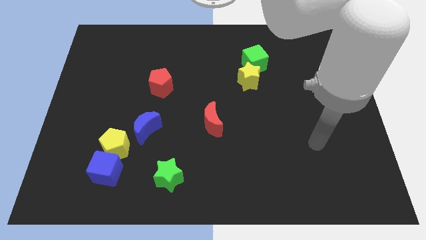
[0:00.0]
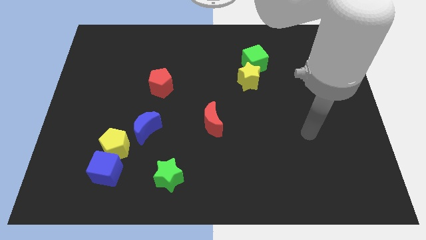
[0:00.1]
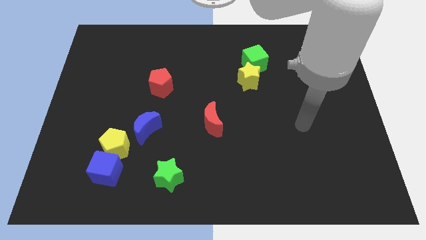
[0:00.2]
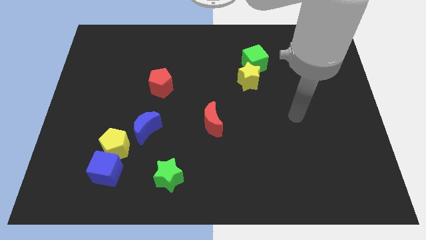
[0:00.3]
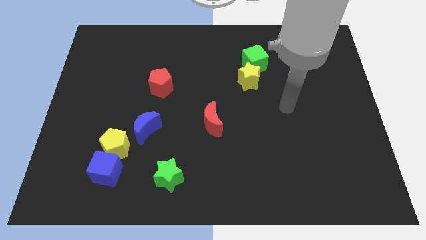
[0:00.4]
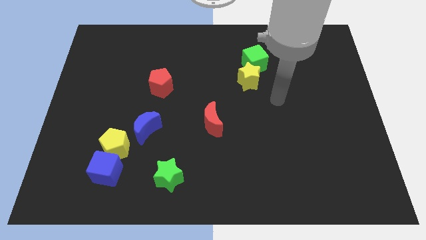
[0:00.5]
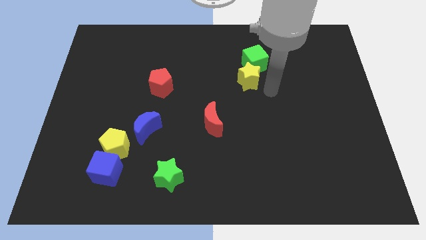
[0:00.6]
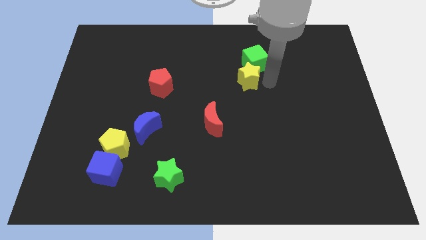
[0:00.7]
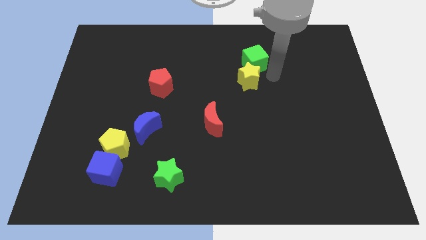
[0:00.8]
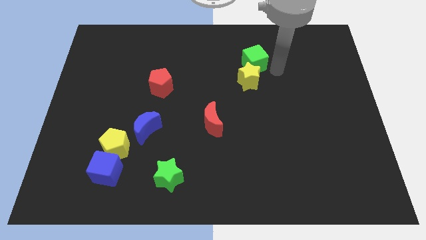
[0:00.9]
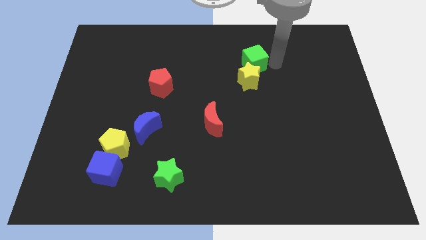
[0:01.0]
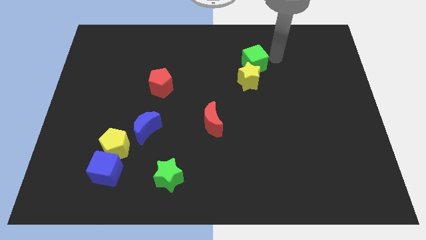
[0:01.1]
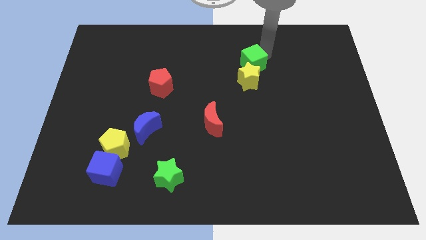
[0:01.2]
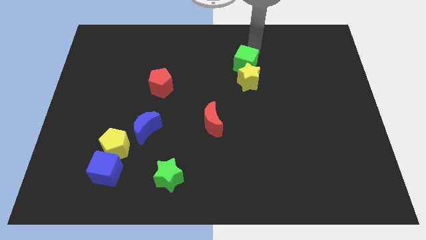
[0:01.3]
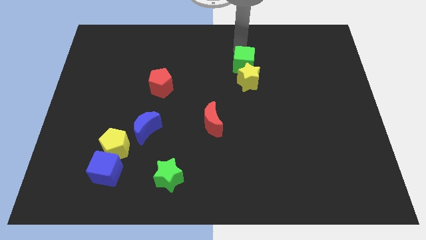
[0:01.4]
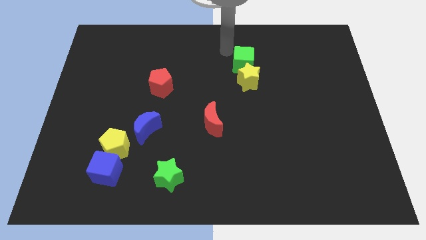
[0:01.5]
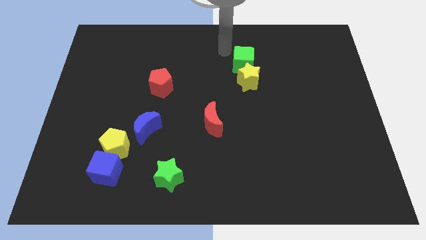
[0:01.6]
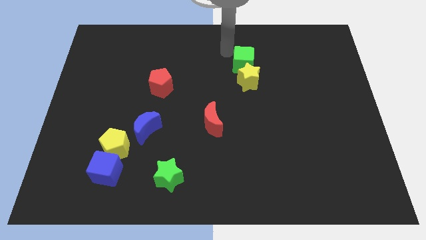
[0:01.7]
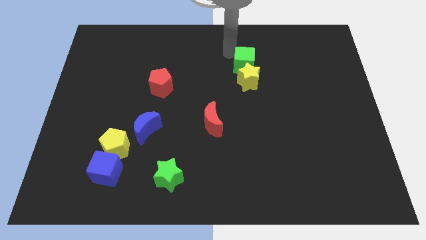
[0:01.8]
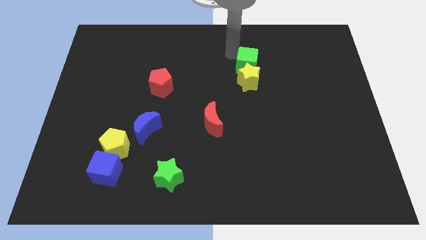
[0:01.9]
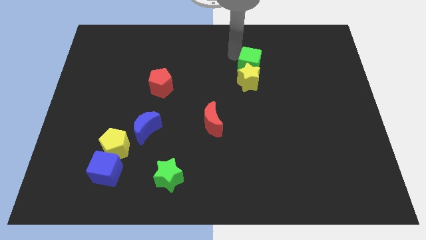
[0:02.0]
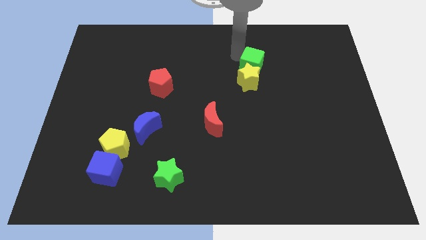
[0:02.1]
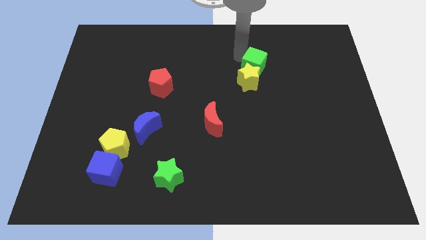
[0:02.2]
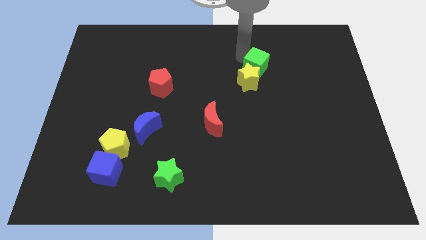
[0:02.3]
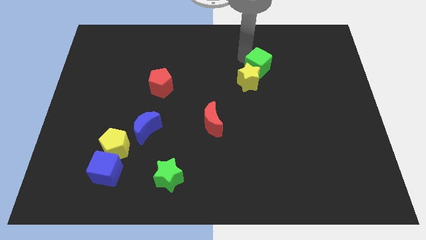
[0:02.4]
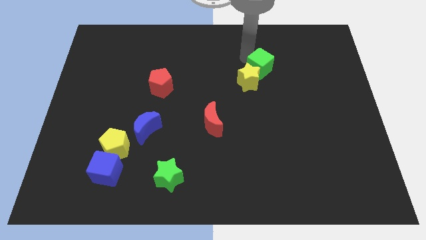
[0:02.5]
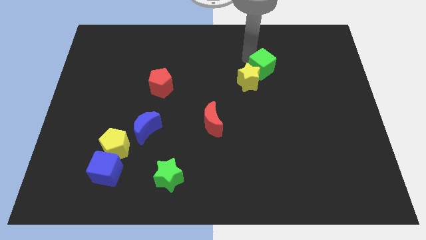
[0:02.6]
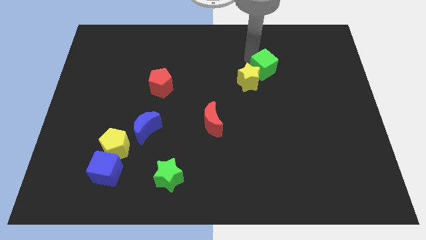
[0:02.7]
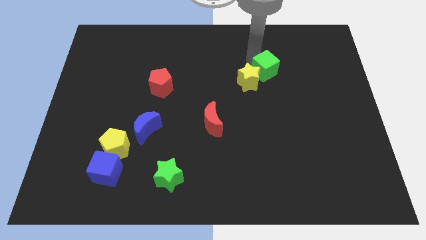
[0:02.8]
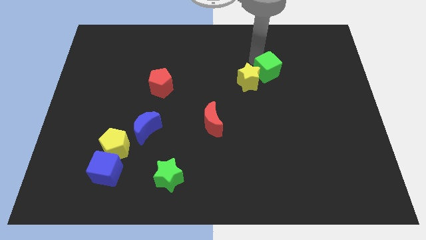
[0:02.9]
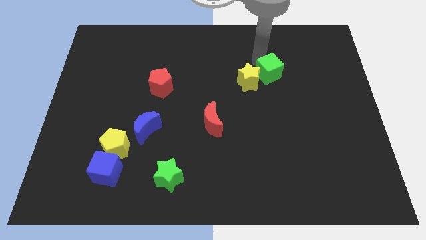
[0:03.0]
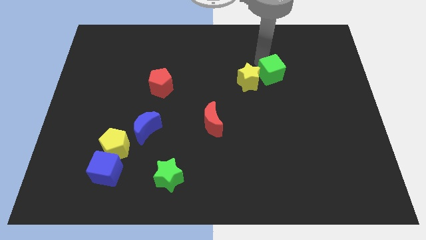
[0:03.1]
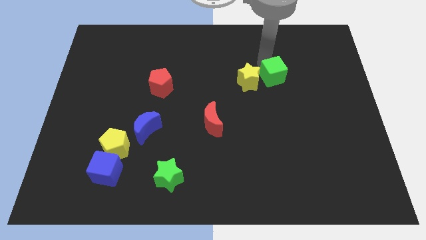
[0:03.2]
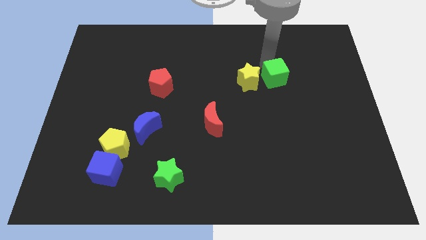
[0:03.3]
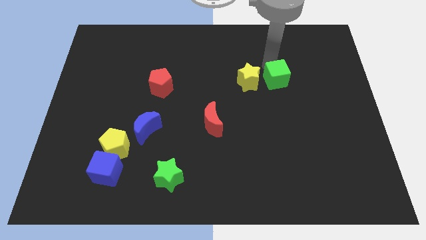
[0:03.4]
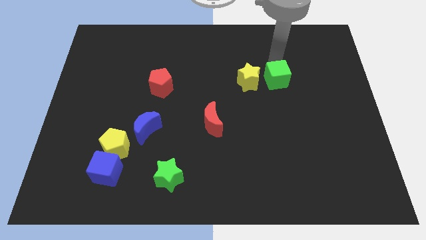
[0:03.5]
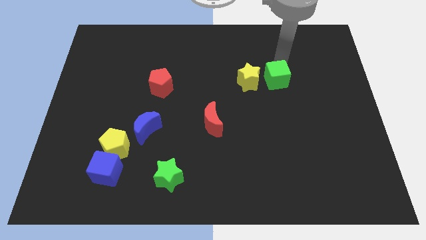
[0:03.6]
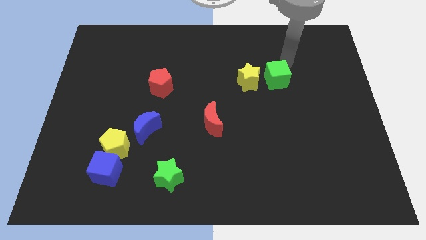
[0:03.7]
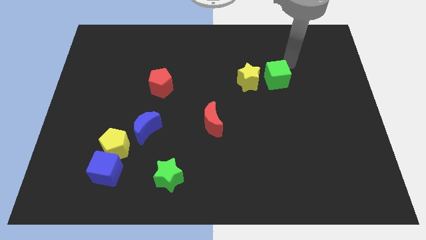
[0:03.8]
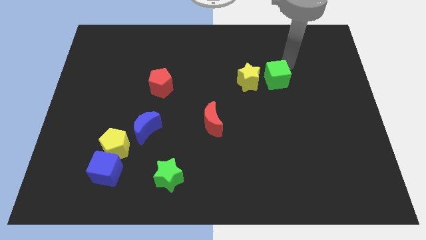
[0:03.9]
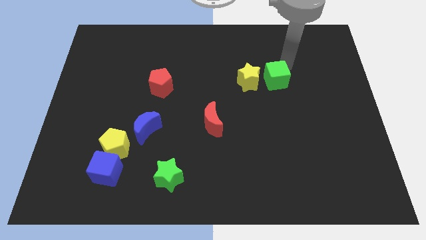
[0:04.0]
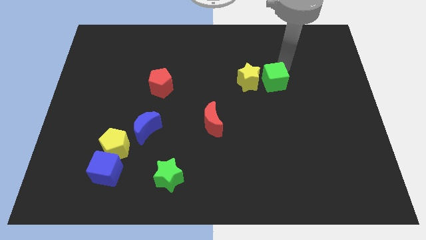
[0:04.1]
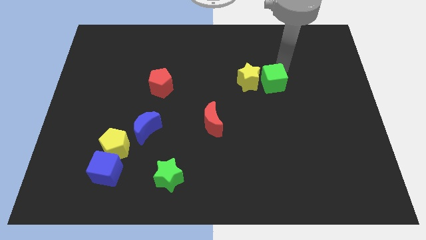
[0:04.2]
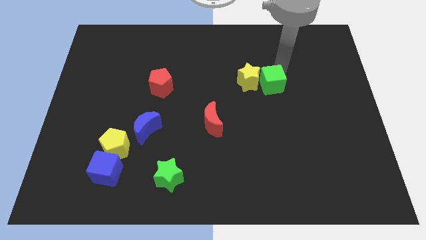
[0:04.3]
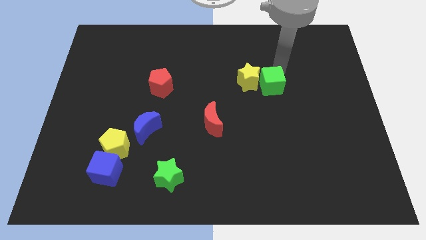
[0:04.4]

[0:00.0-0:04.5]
move the green cube down a little

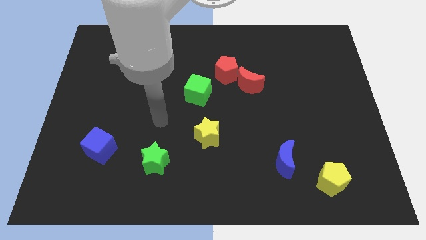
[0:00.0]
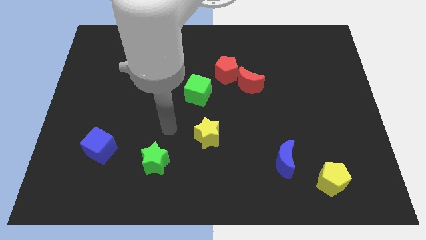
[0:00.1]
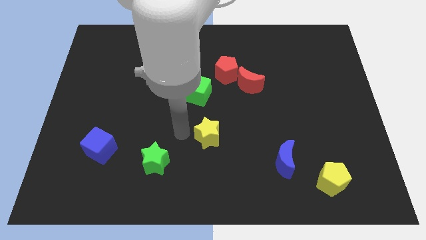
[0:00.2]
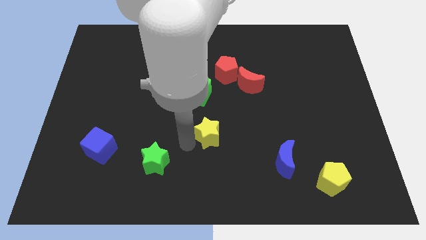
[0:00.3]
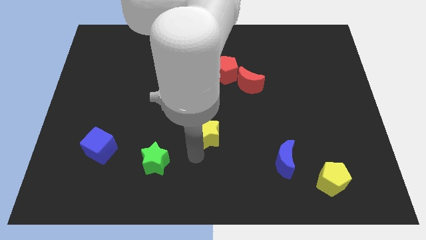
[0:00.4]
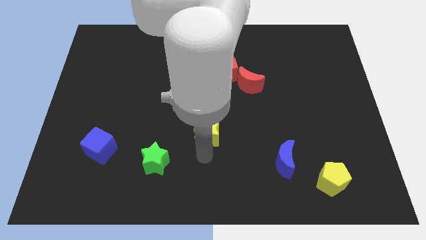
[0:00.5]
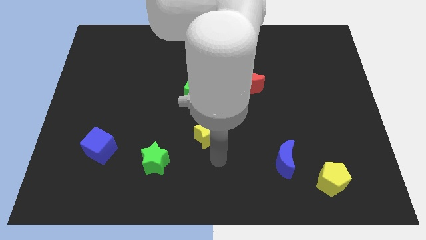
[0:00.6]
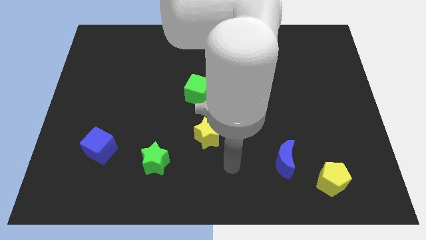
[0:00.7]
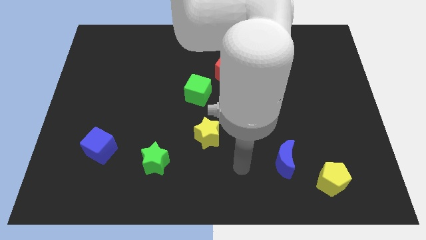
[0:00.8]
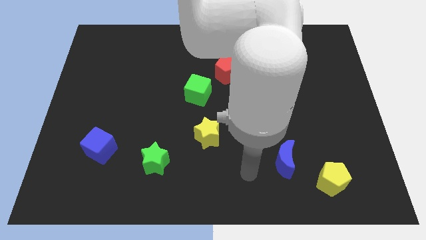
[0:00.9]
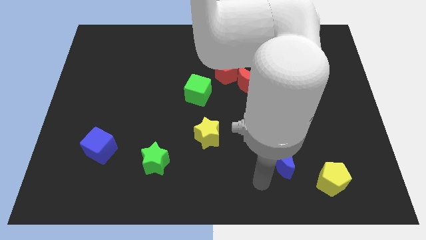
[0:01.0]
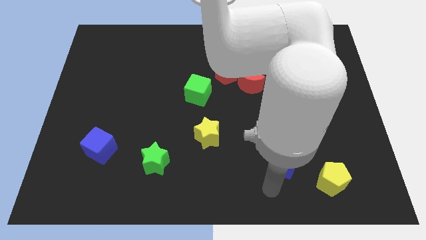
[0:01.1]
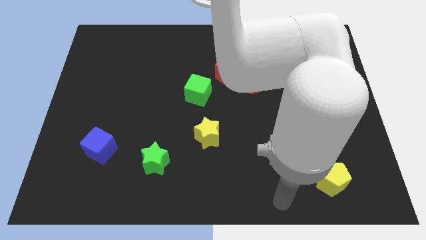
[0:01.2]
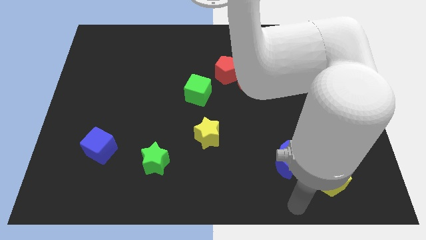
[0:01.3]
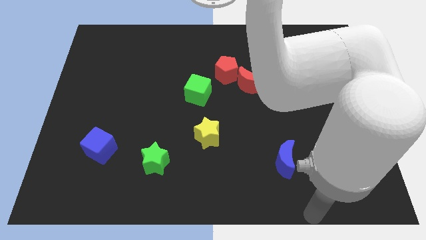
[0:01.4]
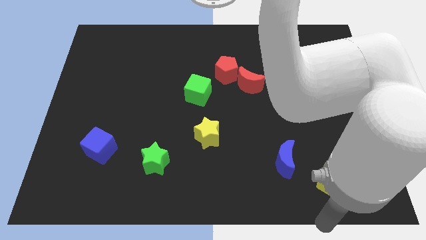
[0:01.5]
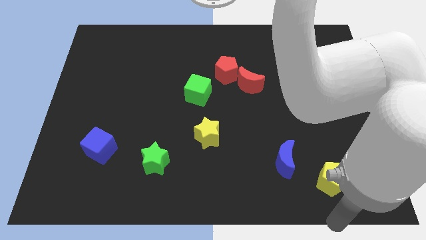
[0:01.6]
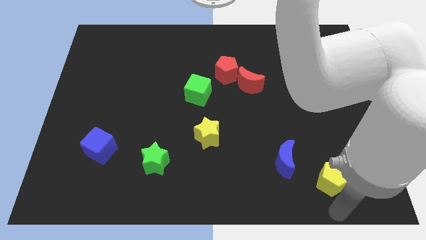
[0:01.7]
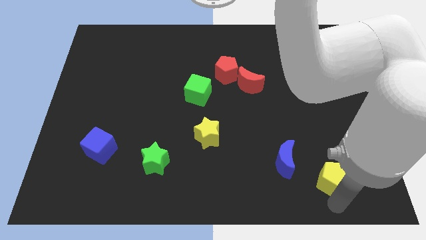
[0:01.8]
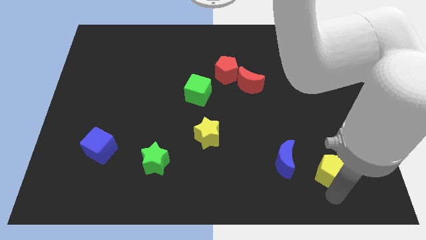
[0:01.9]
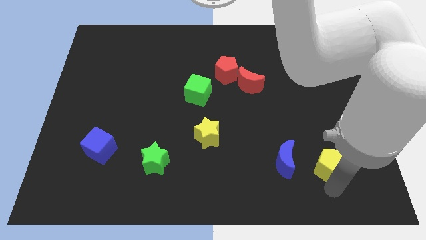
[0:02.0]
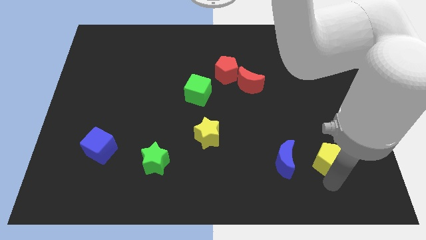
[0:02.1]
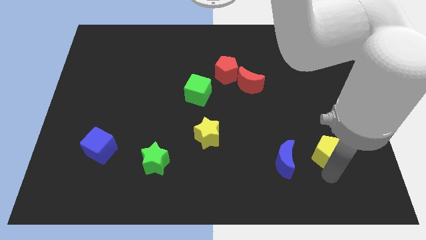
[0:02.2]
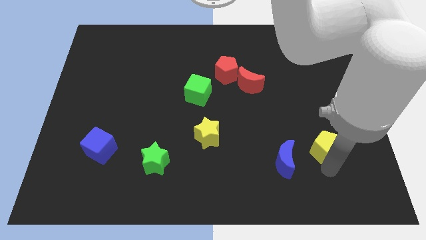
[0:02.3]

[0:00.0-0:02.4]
slide the yellow pentagon upwards a bit

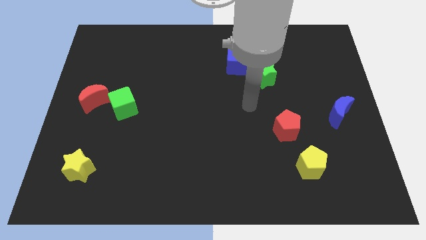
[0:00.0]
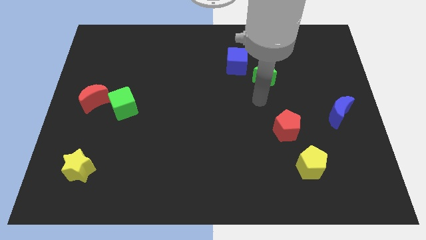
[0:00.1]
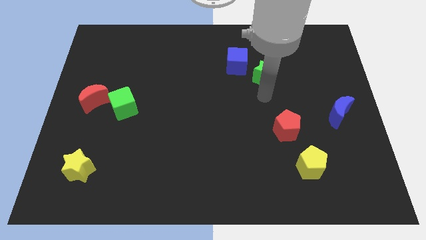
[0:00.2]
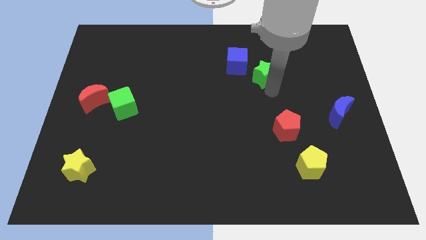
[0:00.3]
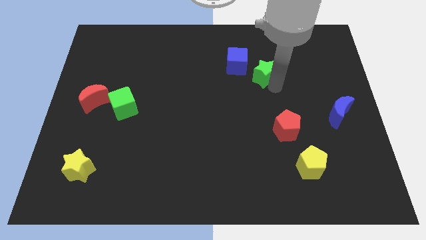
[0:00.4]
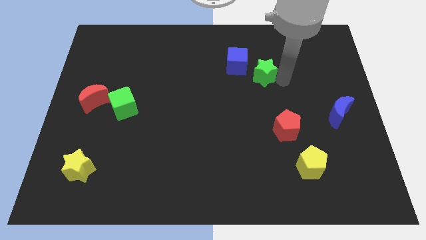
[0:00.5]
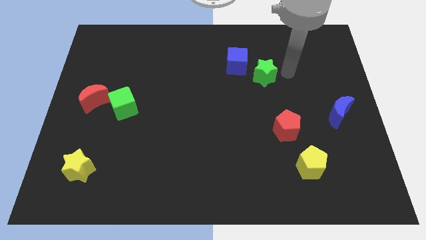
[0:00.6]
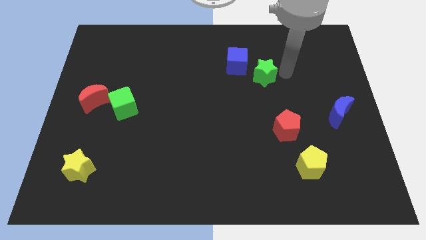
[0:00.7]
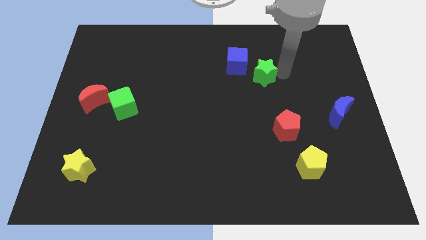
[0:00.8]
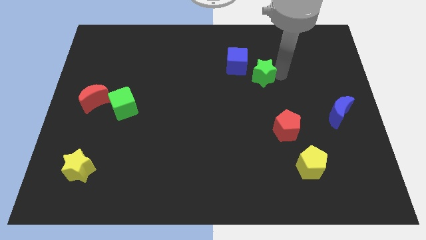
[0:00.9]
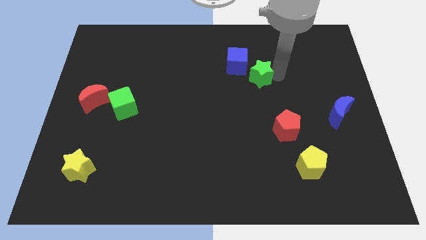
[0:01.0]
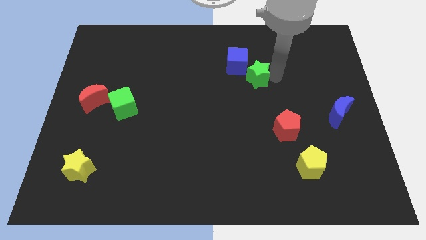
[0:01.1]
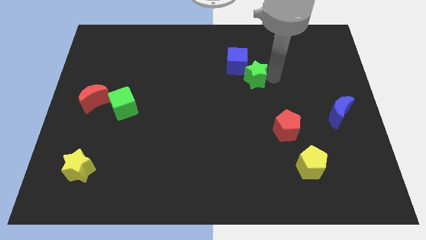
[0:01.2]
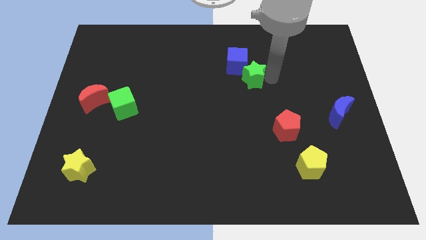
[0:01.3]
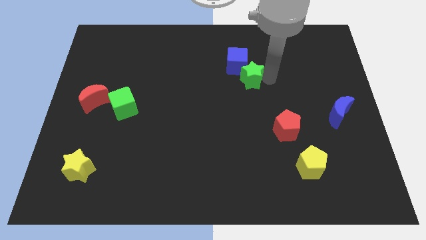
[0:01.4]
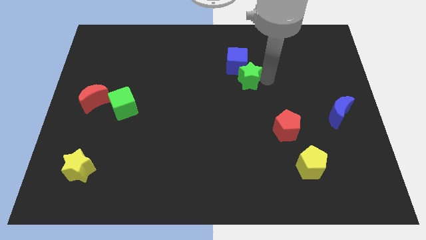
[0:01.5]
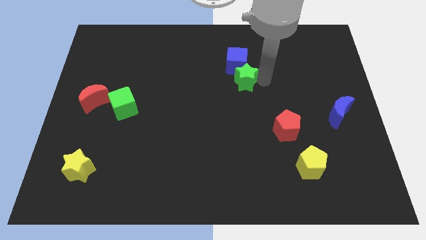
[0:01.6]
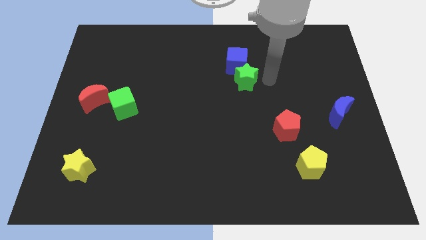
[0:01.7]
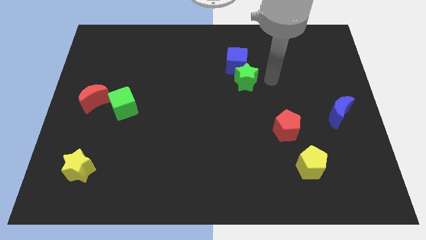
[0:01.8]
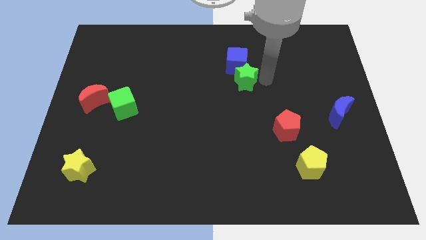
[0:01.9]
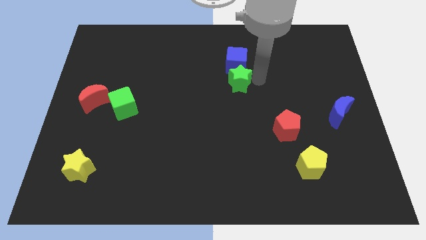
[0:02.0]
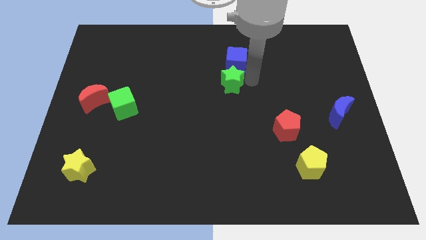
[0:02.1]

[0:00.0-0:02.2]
push the green star to the left somewhat
